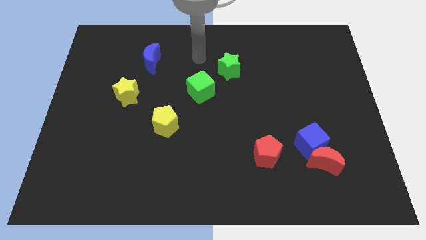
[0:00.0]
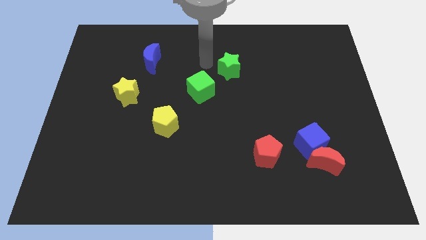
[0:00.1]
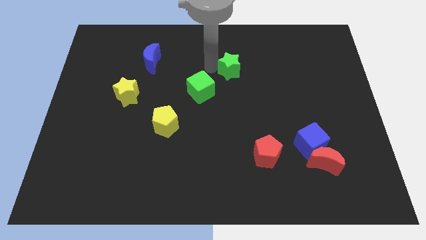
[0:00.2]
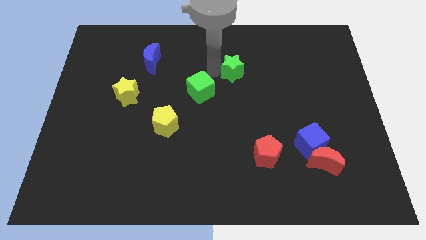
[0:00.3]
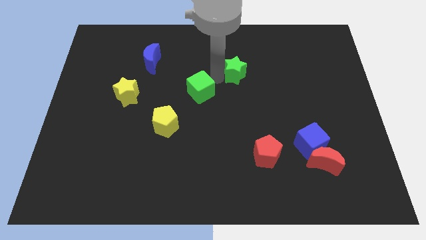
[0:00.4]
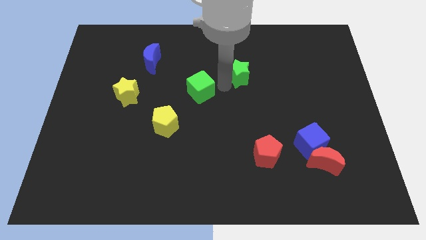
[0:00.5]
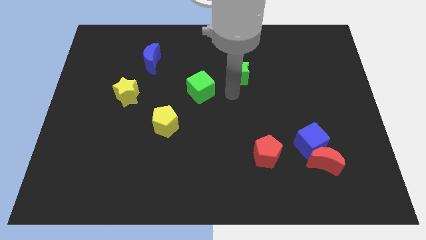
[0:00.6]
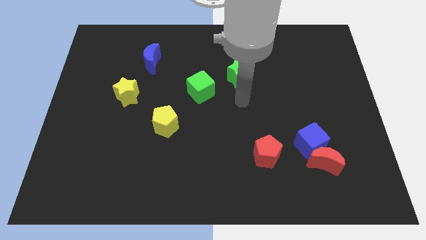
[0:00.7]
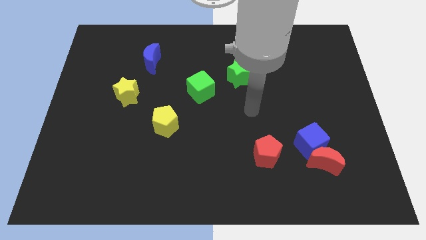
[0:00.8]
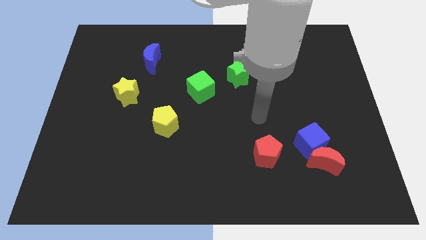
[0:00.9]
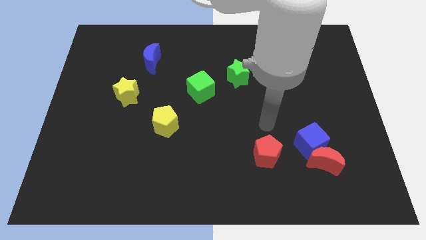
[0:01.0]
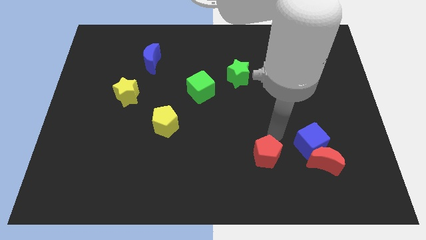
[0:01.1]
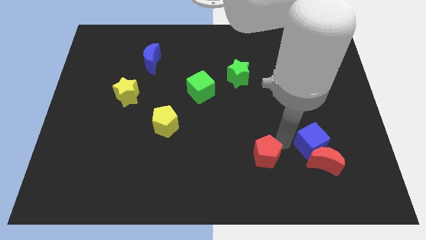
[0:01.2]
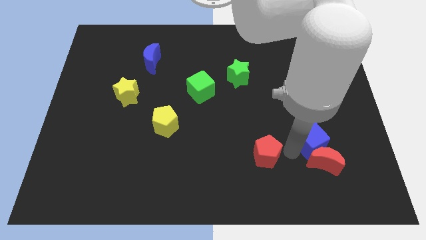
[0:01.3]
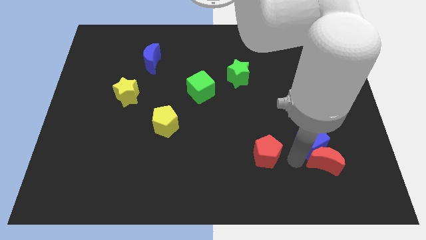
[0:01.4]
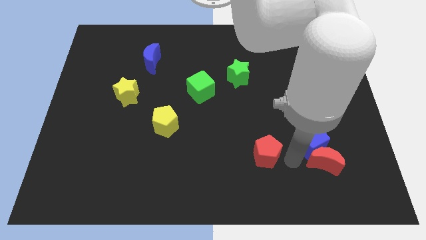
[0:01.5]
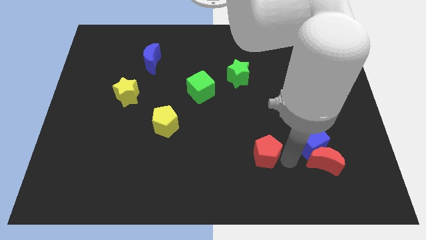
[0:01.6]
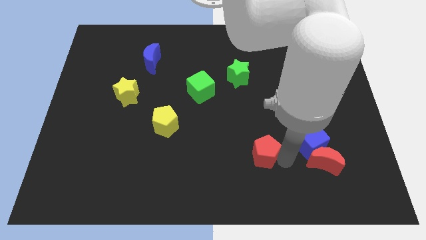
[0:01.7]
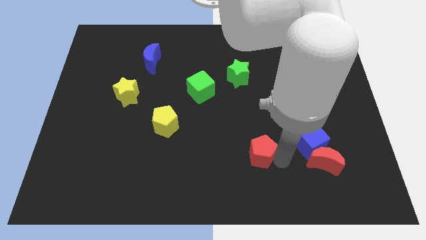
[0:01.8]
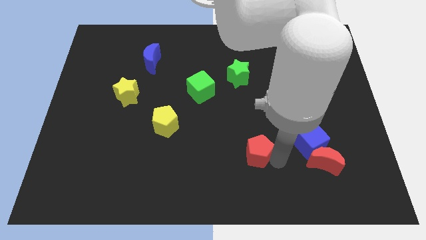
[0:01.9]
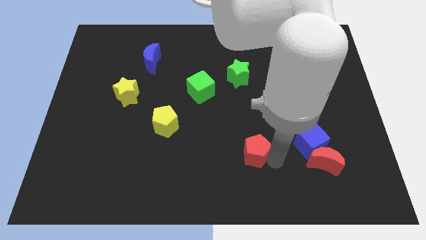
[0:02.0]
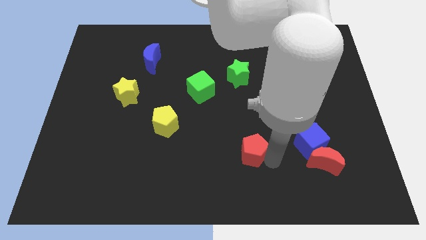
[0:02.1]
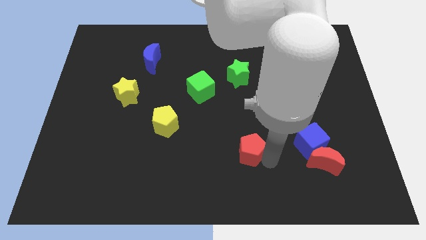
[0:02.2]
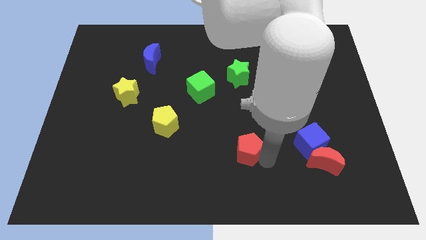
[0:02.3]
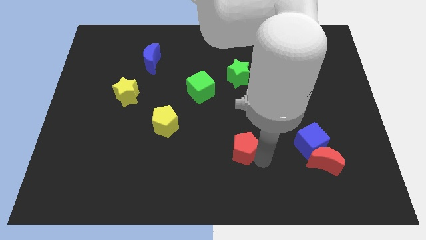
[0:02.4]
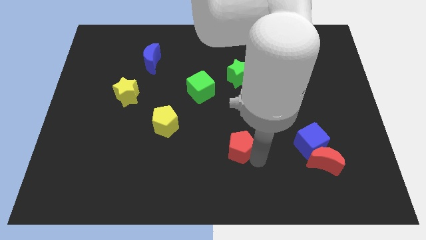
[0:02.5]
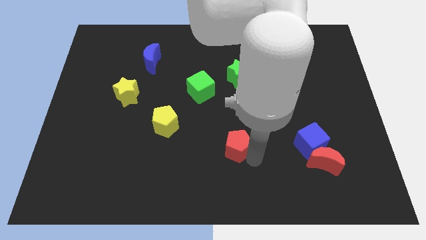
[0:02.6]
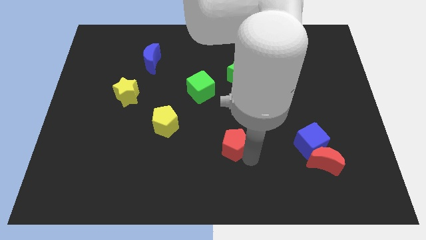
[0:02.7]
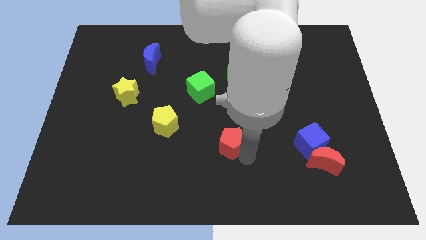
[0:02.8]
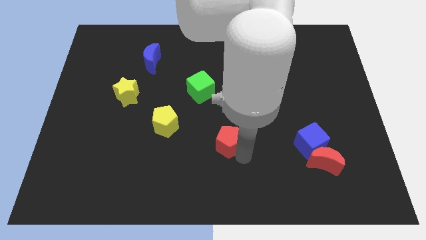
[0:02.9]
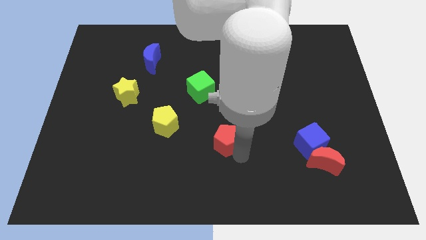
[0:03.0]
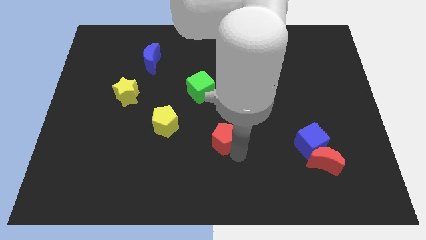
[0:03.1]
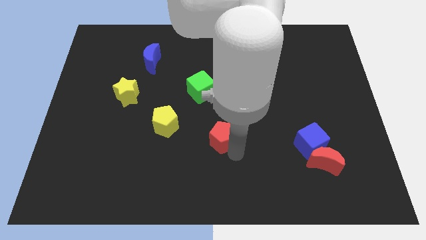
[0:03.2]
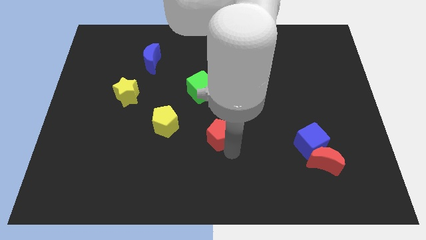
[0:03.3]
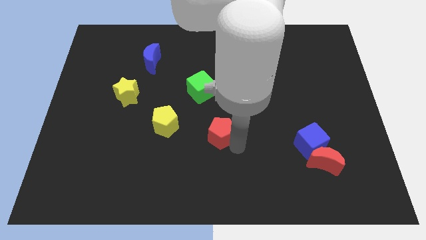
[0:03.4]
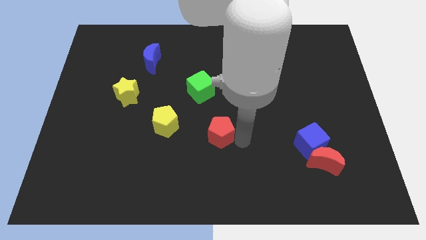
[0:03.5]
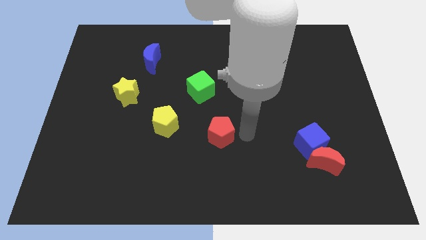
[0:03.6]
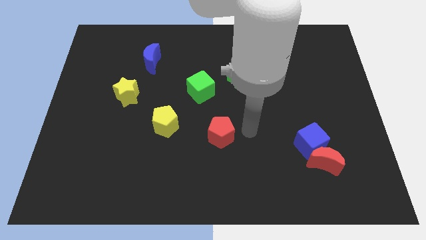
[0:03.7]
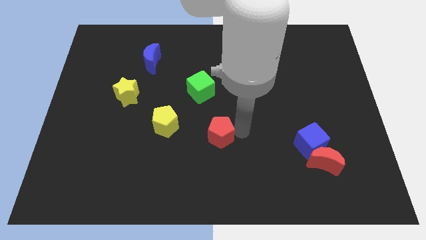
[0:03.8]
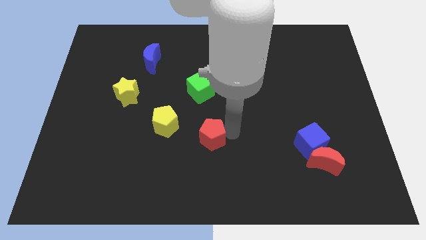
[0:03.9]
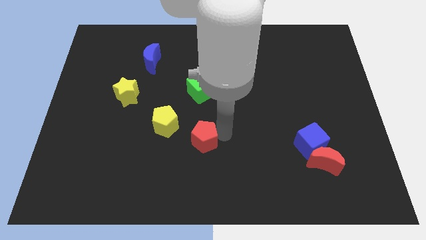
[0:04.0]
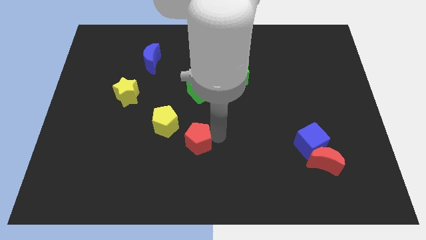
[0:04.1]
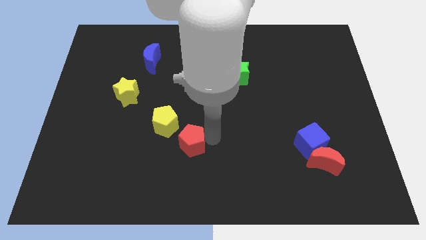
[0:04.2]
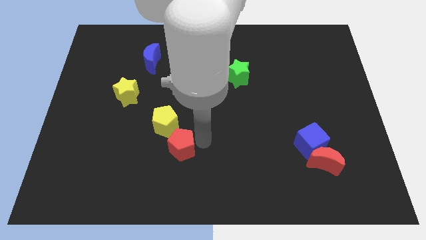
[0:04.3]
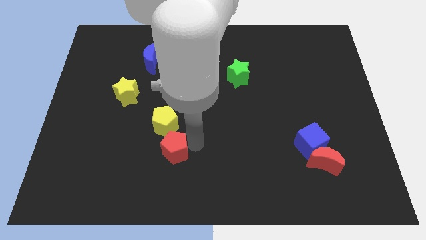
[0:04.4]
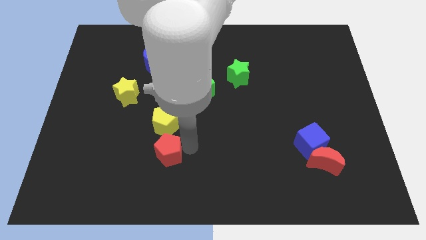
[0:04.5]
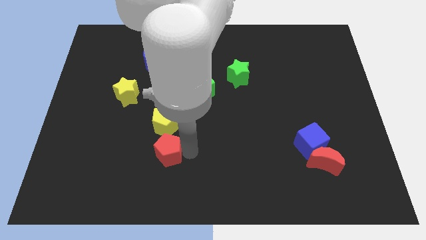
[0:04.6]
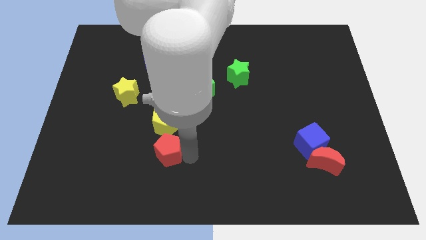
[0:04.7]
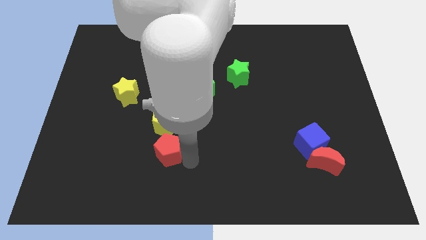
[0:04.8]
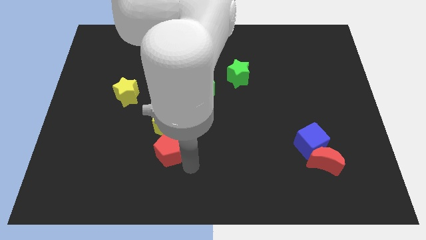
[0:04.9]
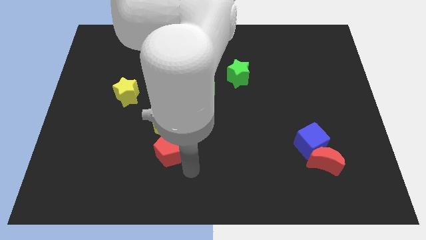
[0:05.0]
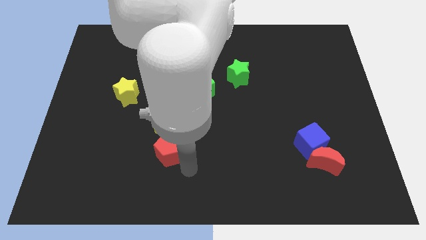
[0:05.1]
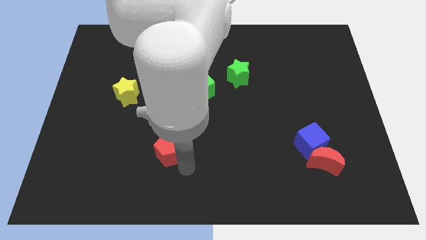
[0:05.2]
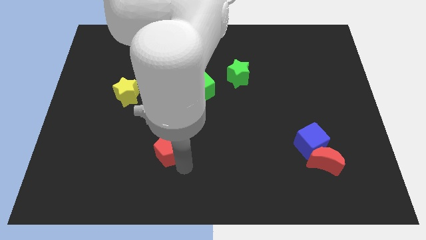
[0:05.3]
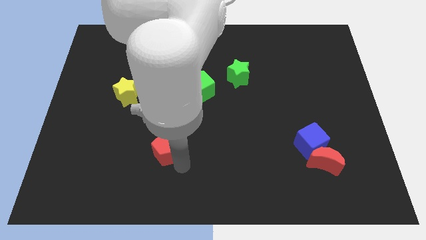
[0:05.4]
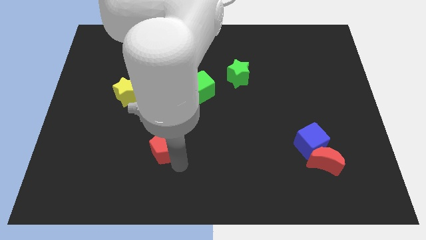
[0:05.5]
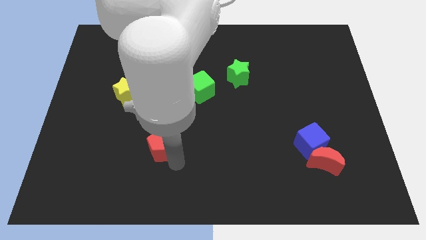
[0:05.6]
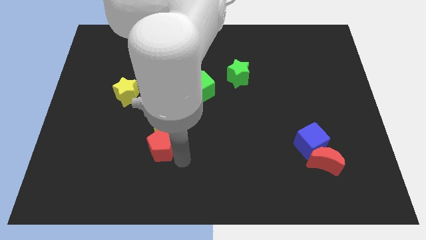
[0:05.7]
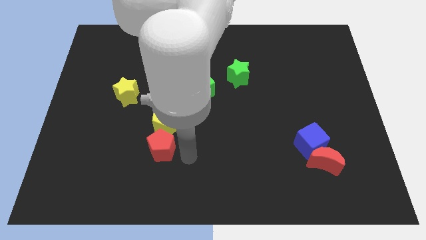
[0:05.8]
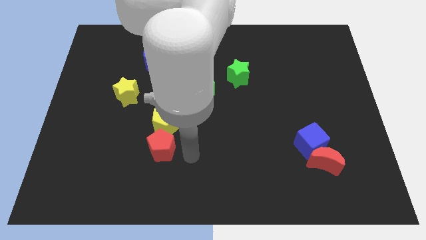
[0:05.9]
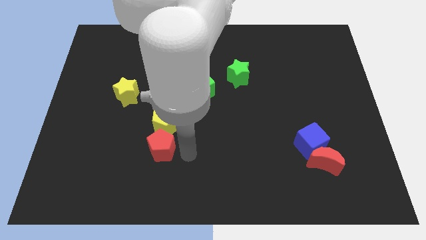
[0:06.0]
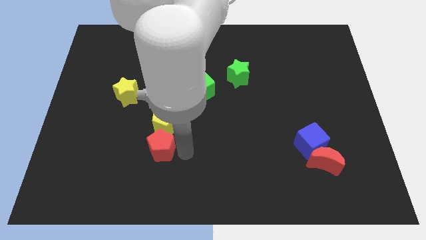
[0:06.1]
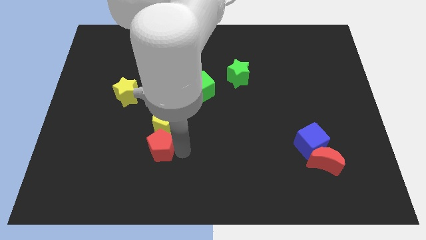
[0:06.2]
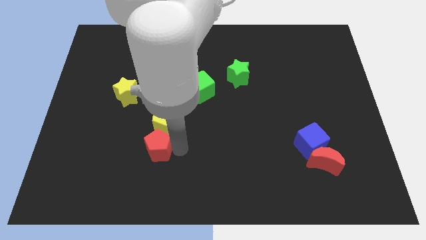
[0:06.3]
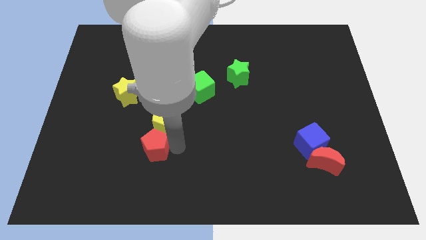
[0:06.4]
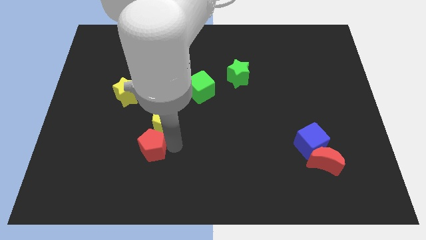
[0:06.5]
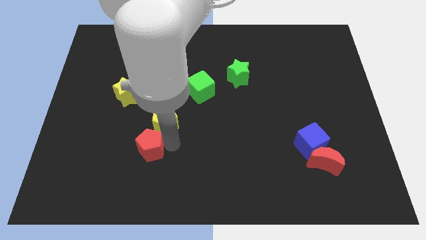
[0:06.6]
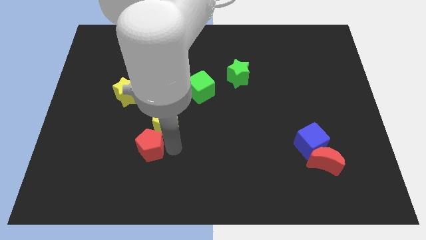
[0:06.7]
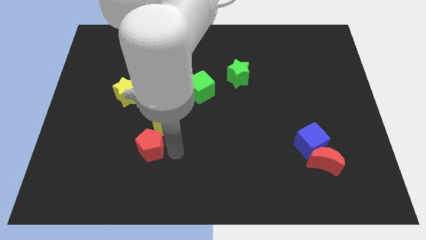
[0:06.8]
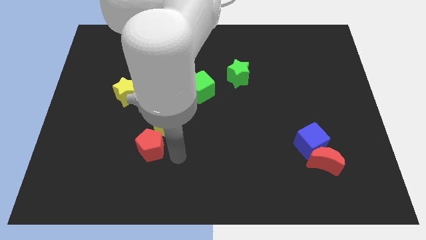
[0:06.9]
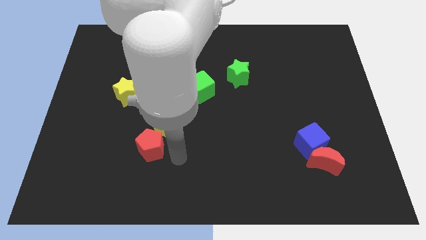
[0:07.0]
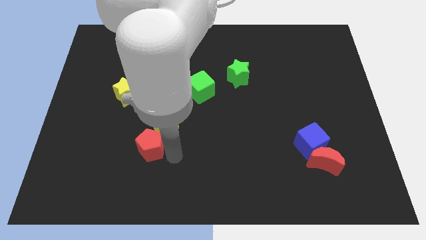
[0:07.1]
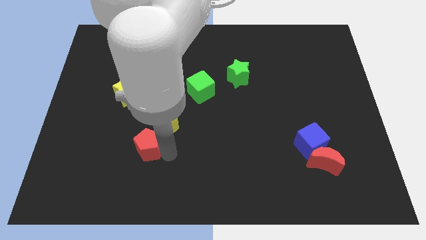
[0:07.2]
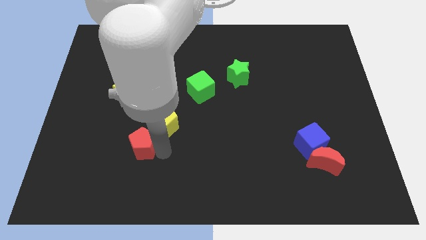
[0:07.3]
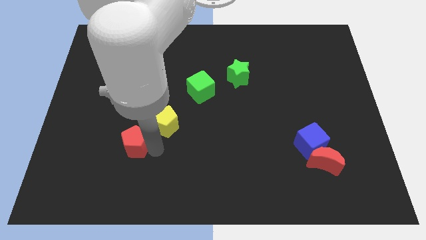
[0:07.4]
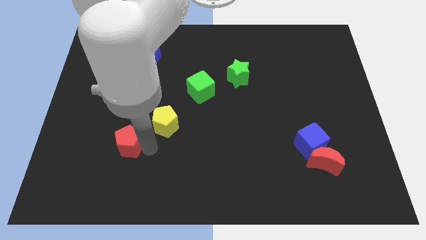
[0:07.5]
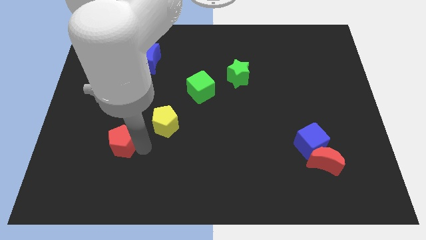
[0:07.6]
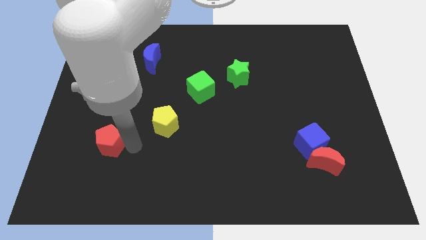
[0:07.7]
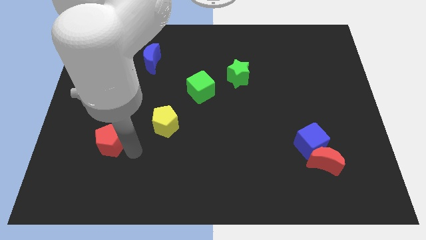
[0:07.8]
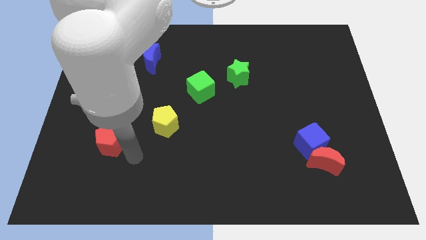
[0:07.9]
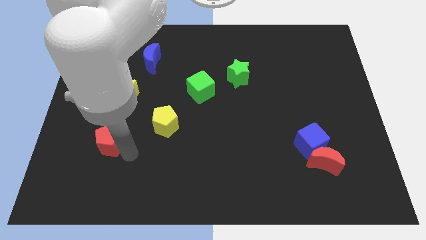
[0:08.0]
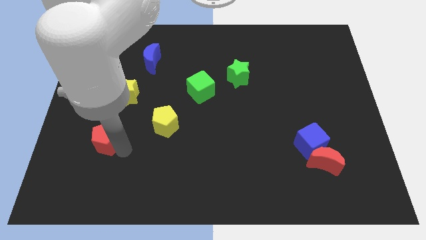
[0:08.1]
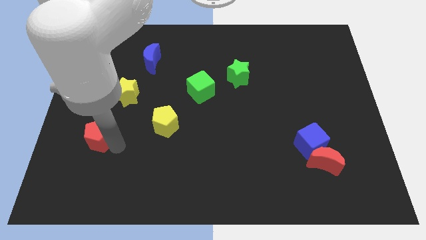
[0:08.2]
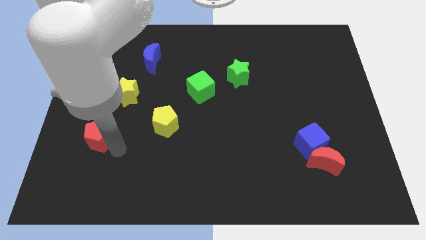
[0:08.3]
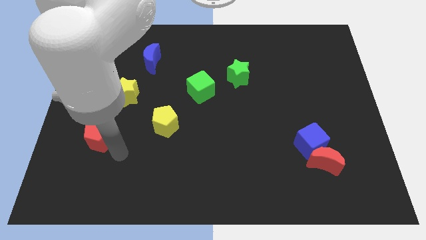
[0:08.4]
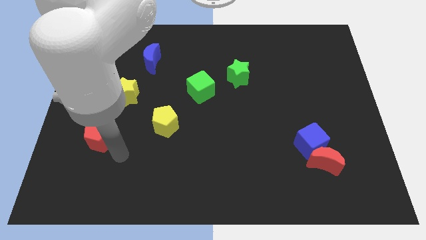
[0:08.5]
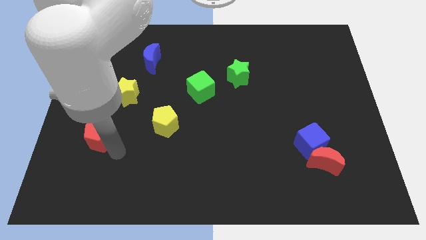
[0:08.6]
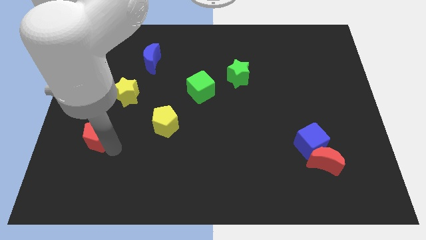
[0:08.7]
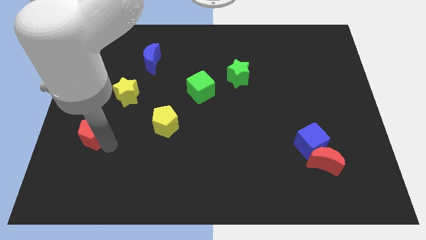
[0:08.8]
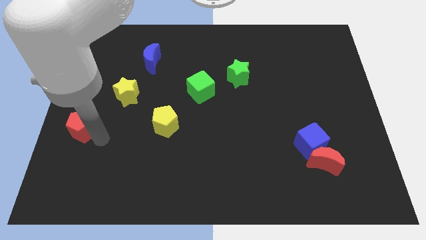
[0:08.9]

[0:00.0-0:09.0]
move the red pentagon to the left side of the board
